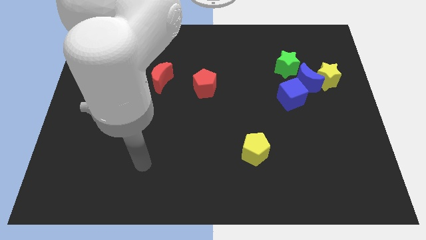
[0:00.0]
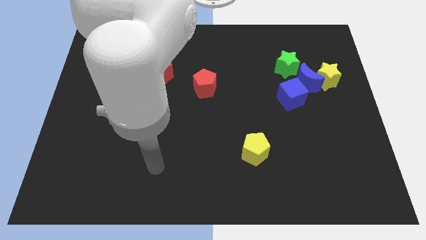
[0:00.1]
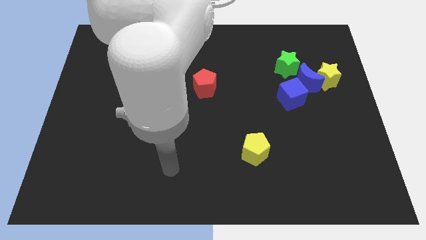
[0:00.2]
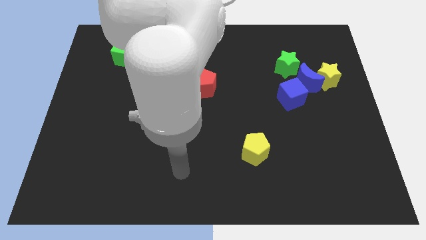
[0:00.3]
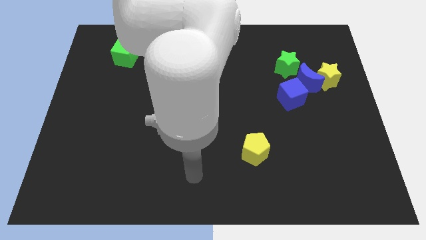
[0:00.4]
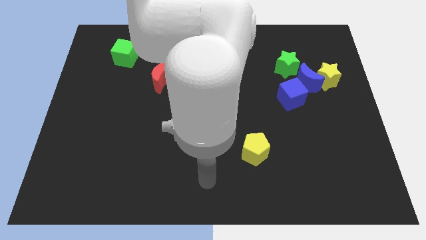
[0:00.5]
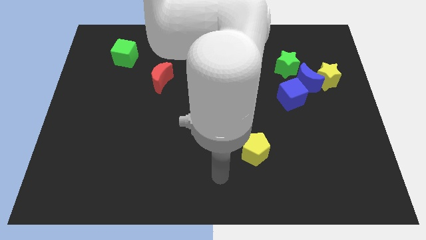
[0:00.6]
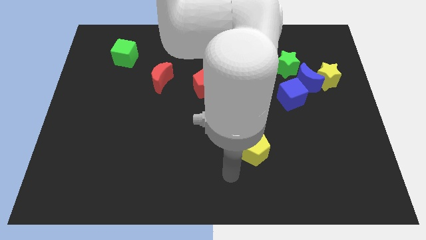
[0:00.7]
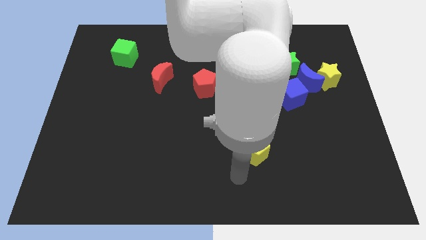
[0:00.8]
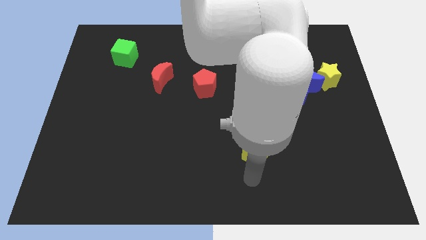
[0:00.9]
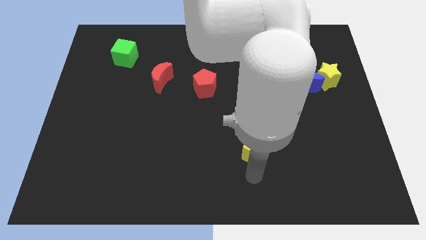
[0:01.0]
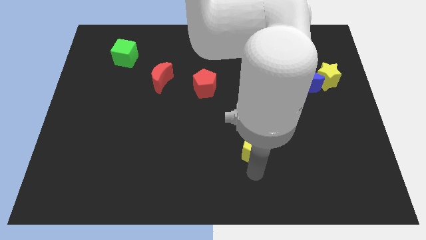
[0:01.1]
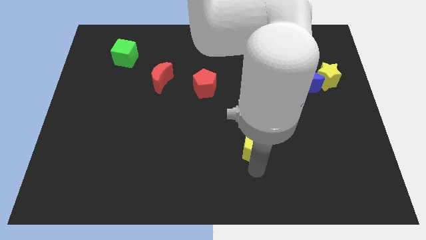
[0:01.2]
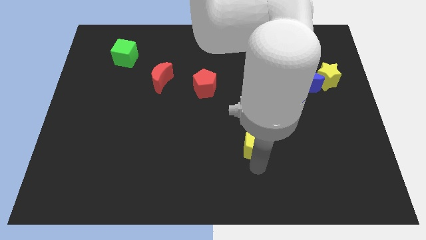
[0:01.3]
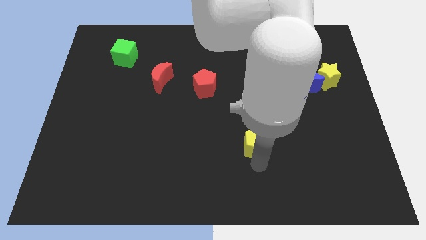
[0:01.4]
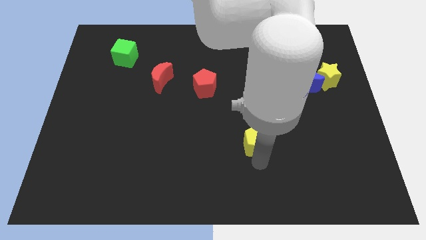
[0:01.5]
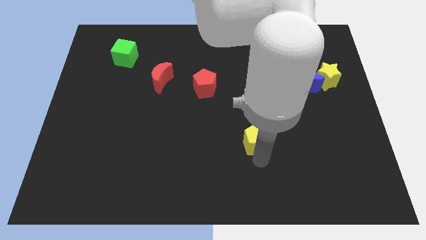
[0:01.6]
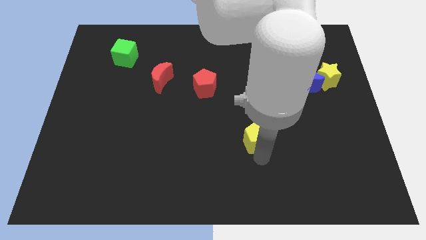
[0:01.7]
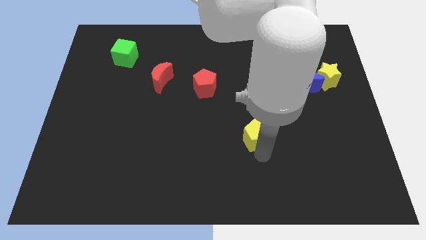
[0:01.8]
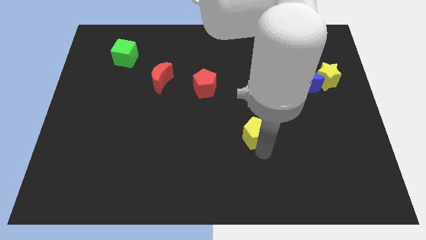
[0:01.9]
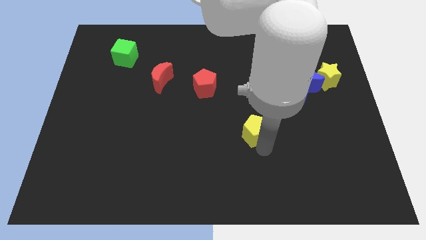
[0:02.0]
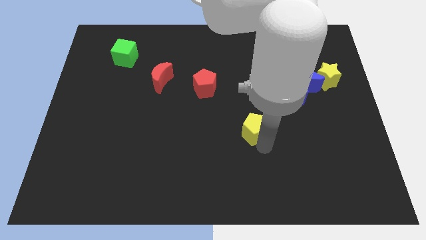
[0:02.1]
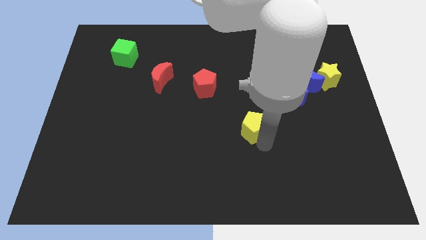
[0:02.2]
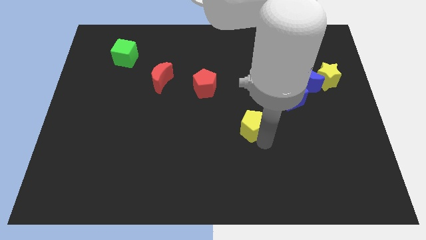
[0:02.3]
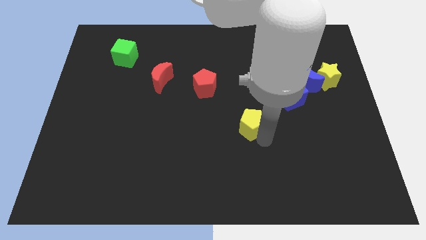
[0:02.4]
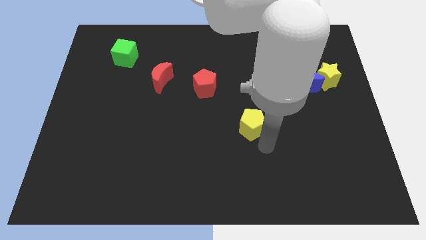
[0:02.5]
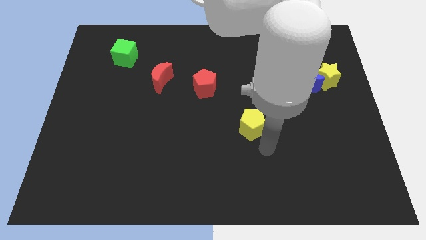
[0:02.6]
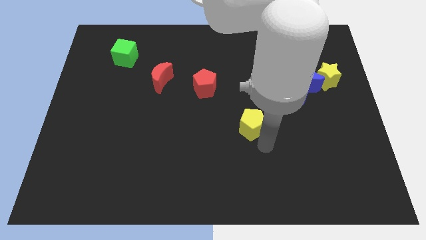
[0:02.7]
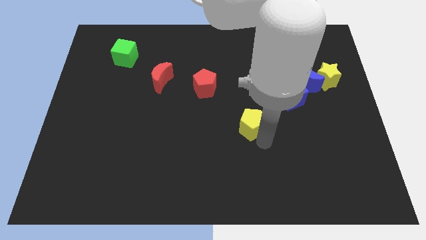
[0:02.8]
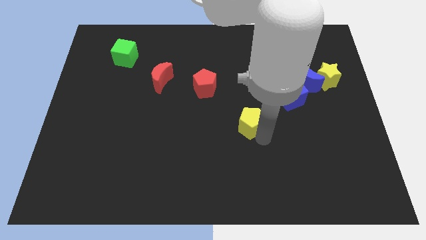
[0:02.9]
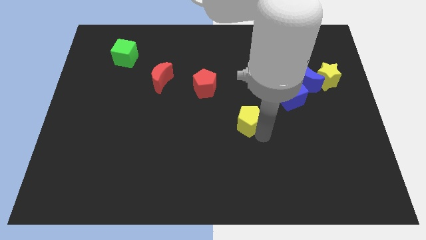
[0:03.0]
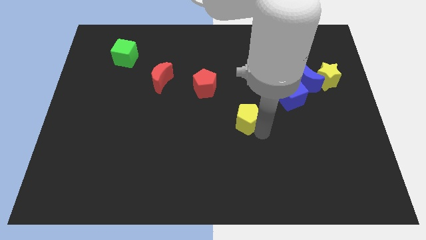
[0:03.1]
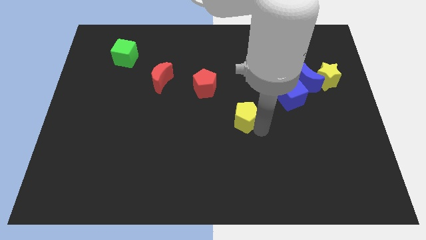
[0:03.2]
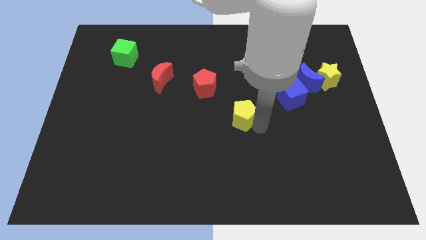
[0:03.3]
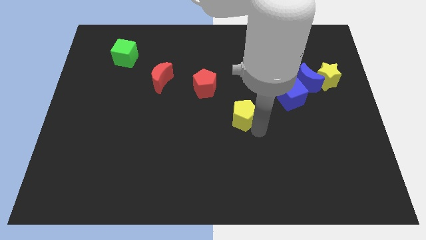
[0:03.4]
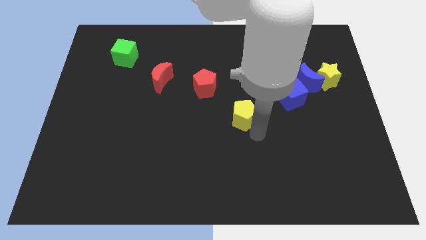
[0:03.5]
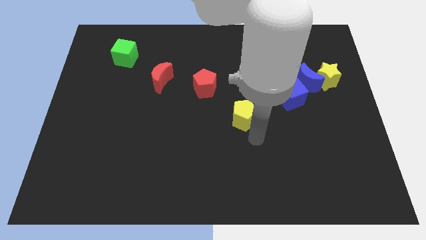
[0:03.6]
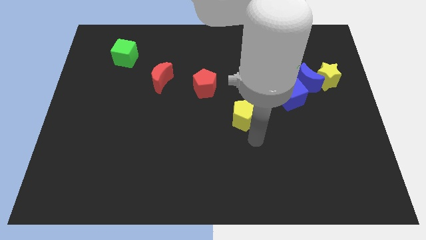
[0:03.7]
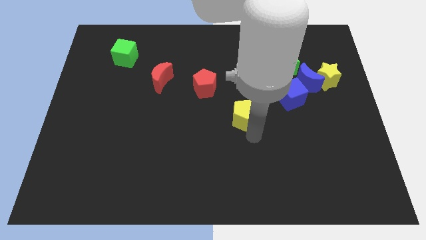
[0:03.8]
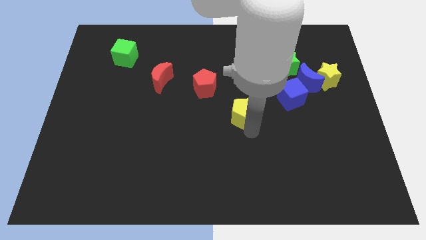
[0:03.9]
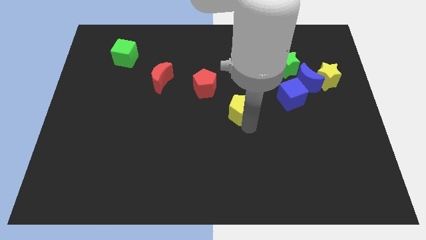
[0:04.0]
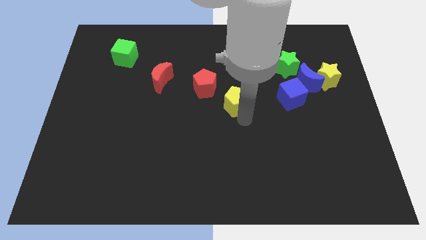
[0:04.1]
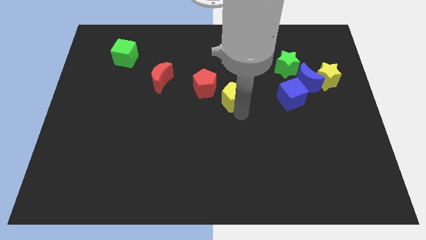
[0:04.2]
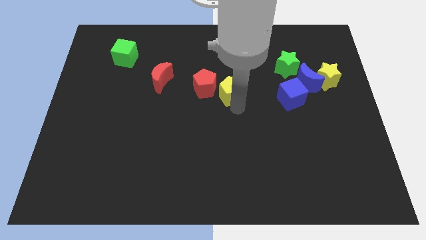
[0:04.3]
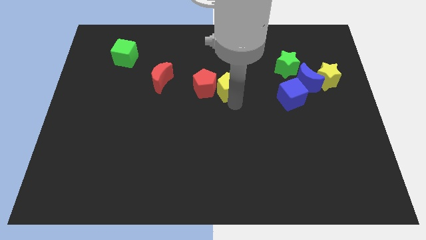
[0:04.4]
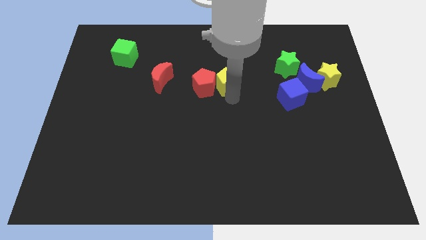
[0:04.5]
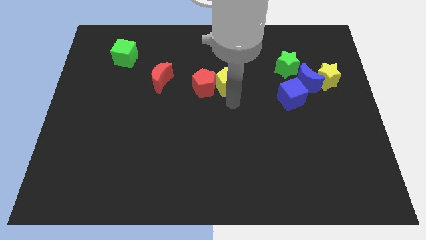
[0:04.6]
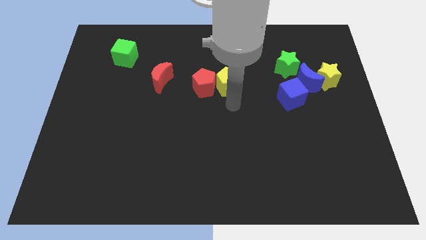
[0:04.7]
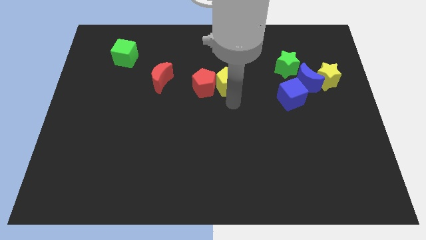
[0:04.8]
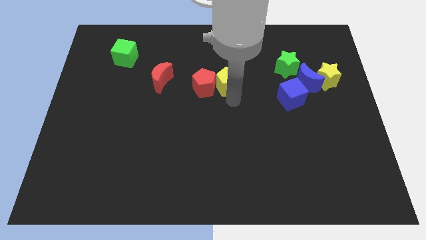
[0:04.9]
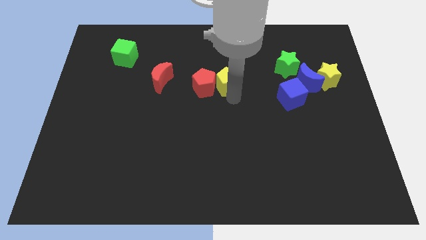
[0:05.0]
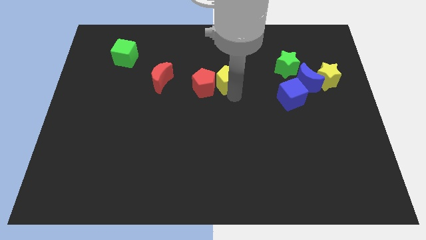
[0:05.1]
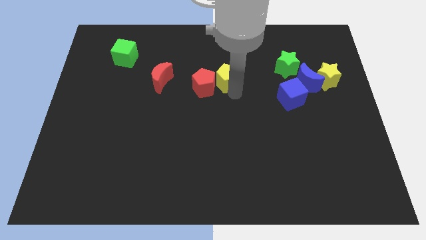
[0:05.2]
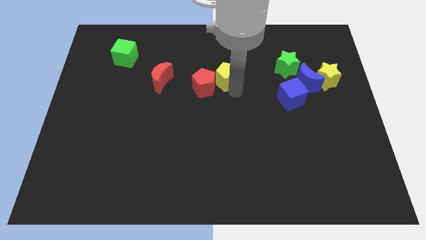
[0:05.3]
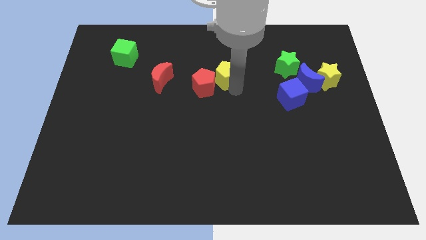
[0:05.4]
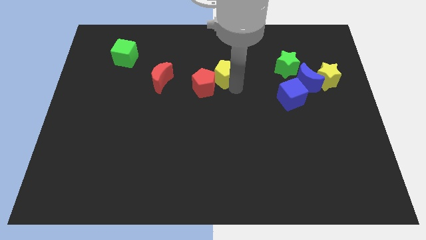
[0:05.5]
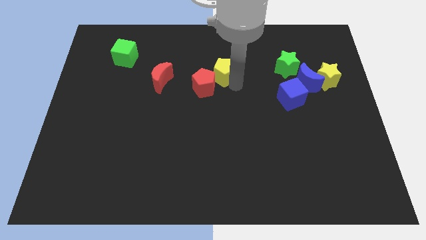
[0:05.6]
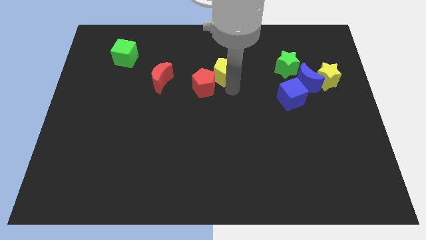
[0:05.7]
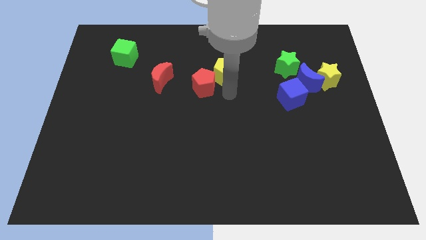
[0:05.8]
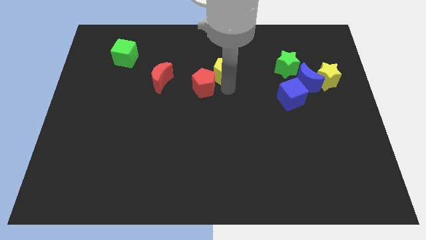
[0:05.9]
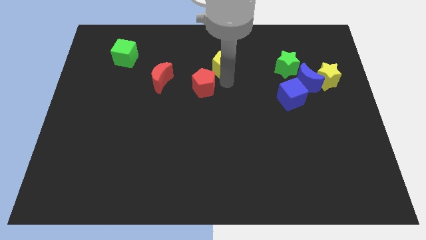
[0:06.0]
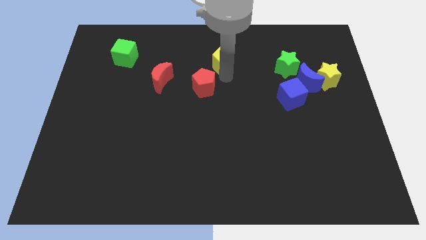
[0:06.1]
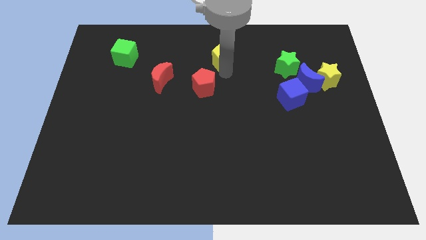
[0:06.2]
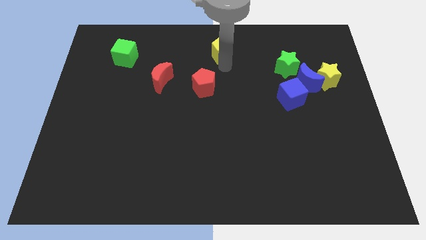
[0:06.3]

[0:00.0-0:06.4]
move the yellow pentagon to the top side
